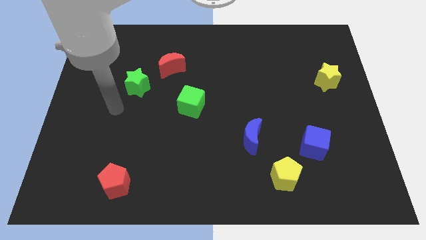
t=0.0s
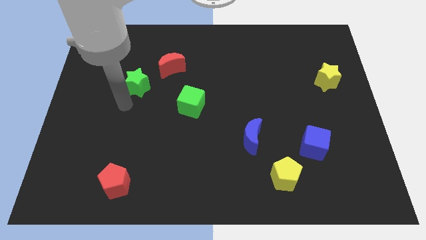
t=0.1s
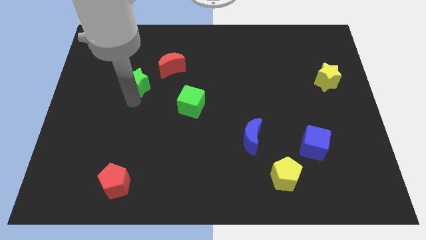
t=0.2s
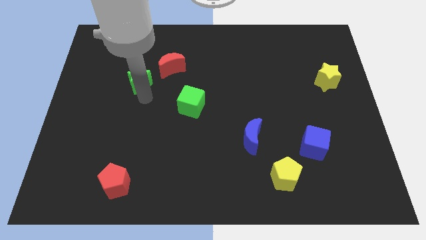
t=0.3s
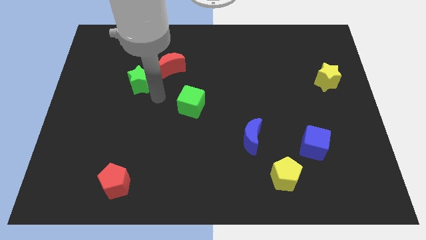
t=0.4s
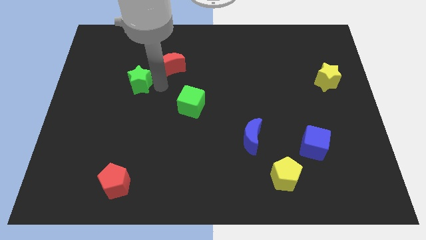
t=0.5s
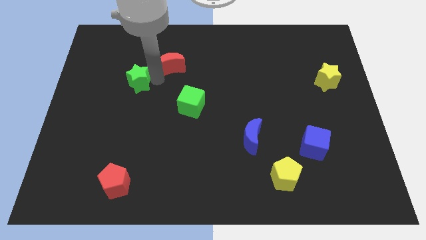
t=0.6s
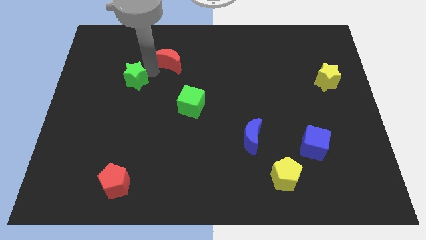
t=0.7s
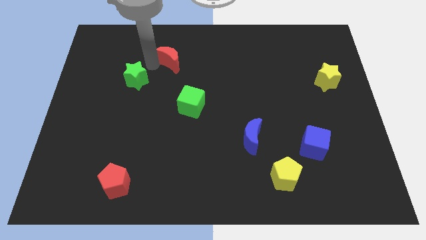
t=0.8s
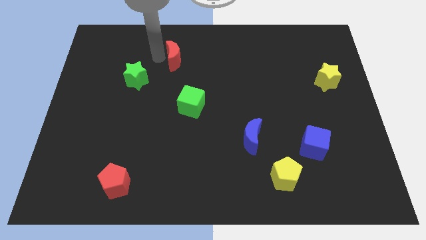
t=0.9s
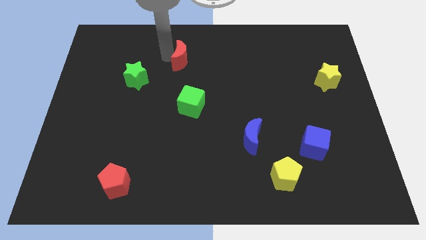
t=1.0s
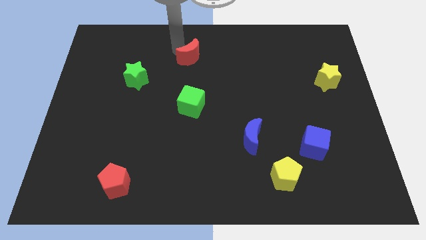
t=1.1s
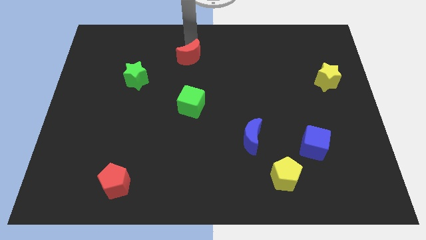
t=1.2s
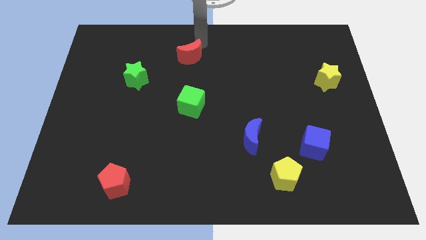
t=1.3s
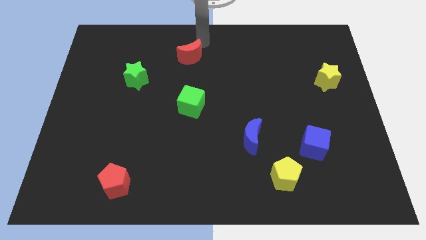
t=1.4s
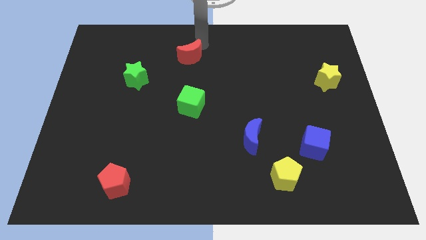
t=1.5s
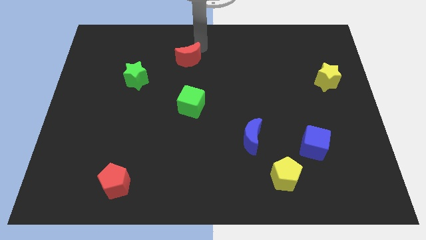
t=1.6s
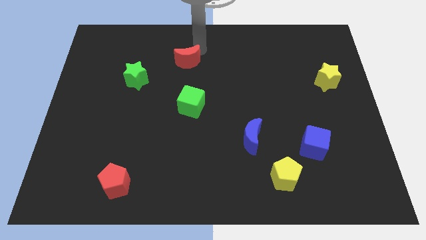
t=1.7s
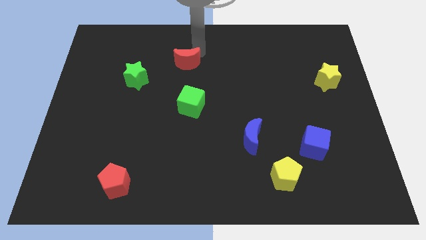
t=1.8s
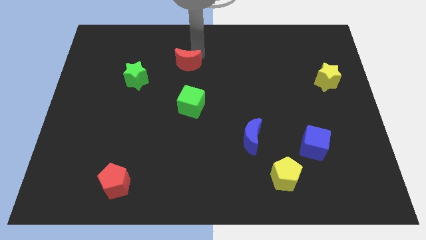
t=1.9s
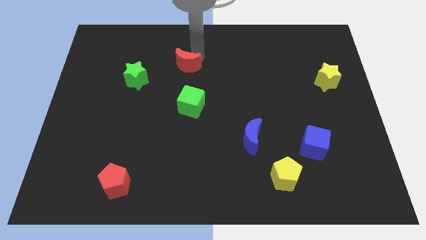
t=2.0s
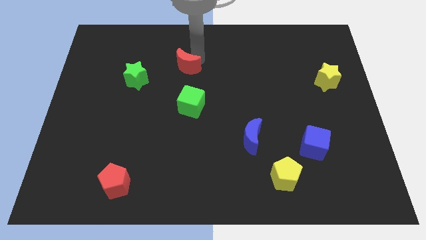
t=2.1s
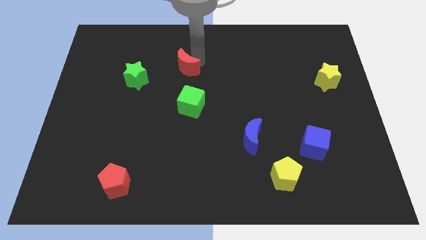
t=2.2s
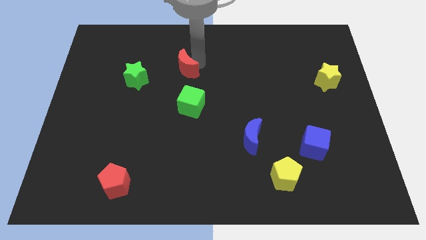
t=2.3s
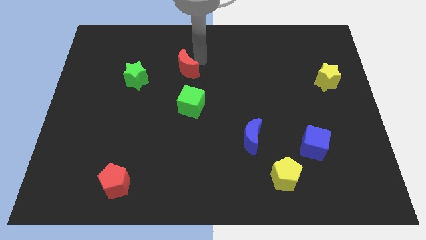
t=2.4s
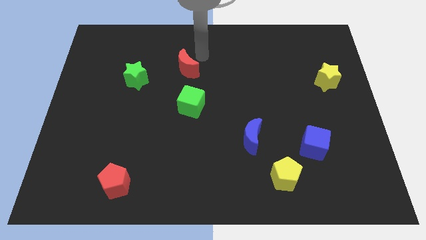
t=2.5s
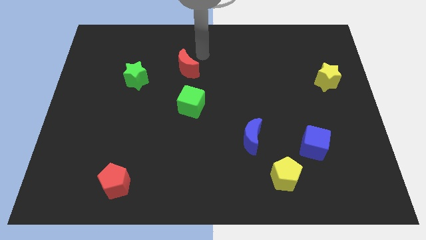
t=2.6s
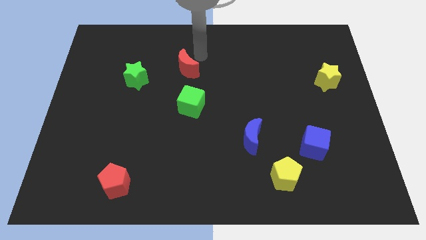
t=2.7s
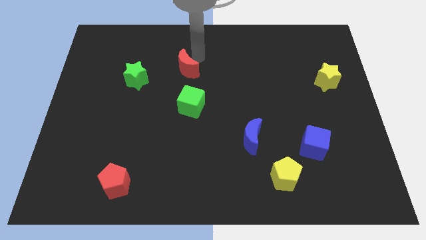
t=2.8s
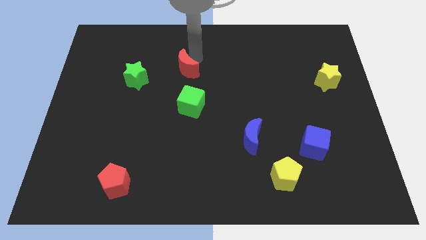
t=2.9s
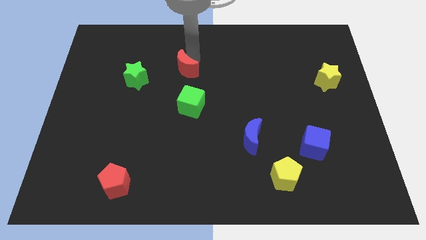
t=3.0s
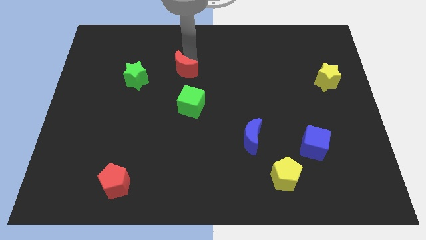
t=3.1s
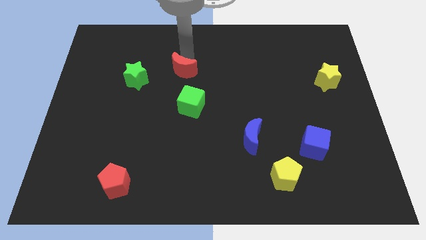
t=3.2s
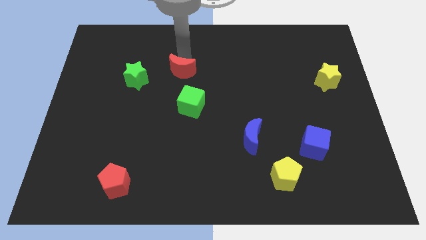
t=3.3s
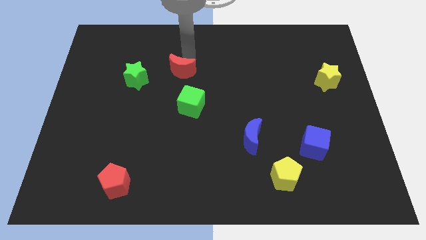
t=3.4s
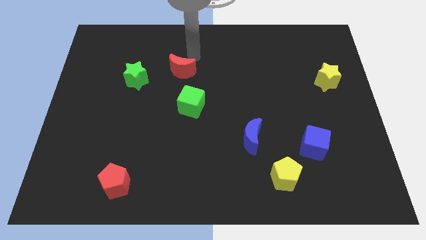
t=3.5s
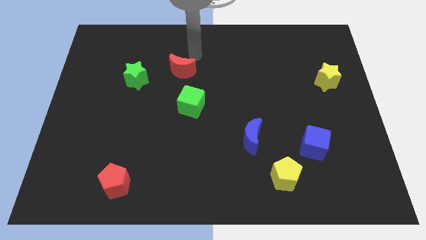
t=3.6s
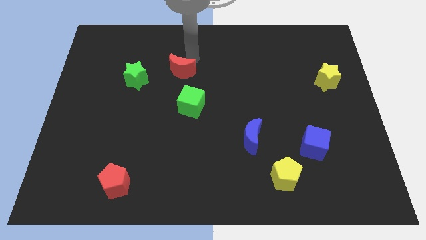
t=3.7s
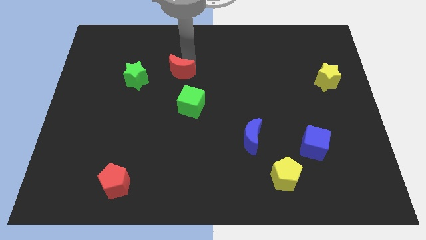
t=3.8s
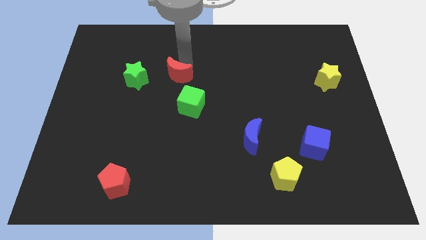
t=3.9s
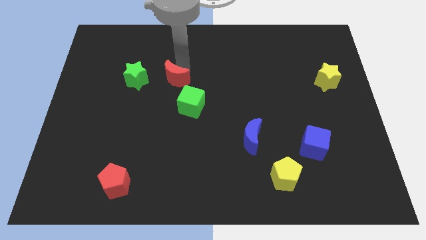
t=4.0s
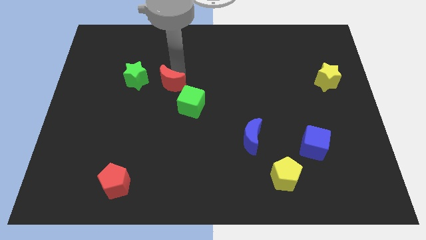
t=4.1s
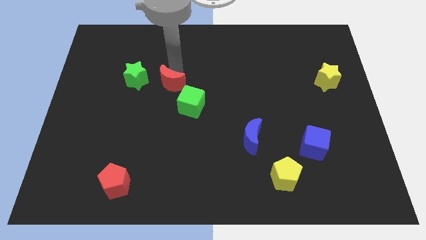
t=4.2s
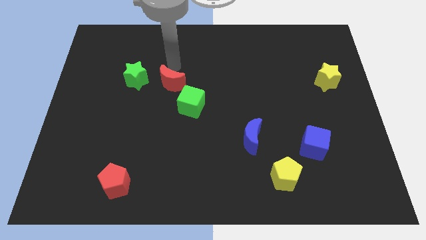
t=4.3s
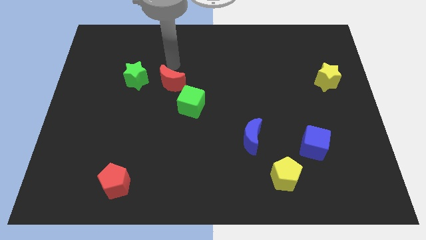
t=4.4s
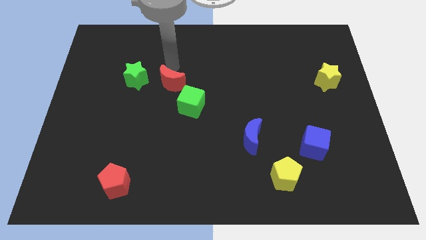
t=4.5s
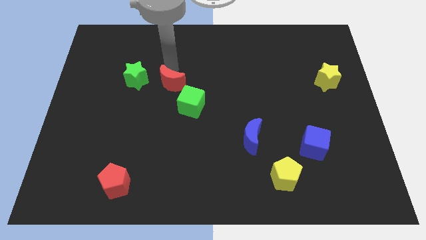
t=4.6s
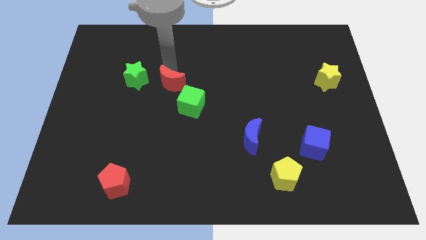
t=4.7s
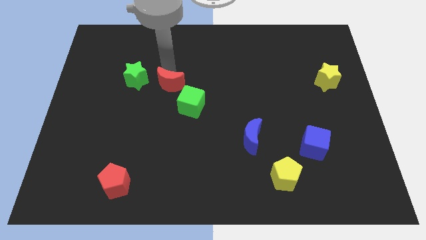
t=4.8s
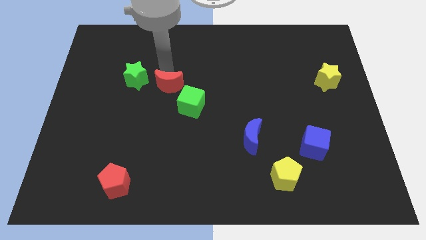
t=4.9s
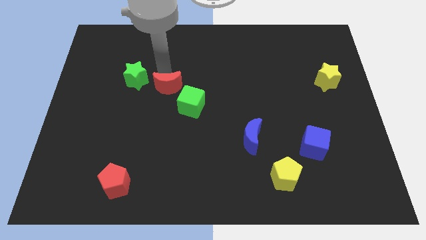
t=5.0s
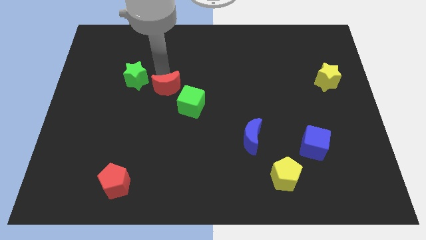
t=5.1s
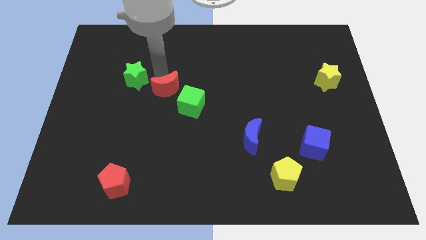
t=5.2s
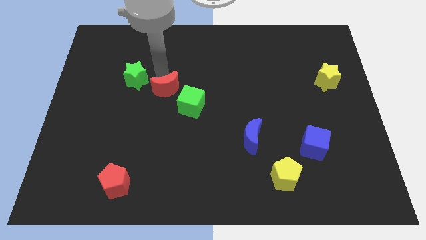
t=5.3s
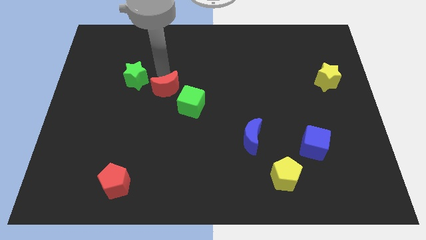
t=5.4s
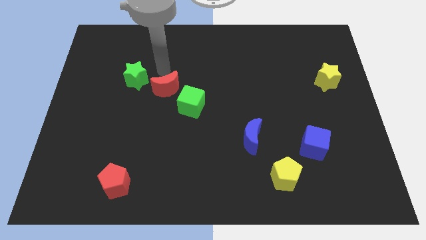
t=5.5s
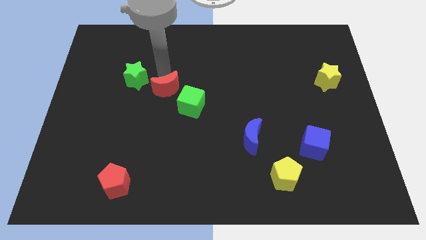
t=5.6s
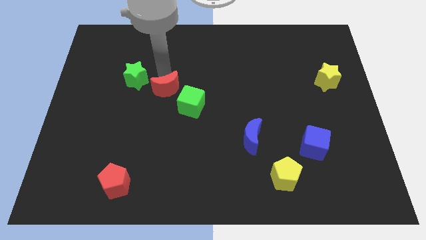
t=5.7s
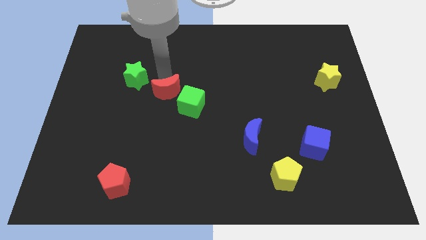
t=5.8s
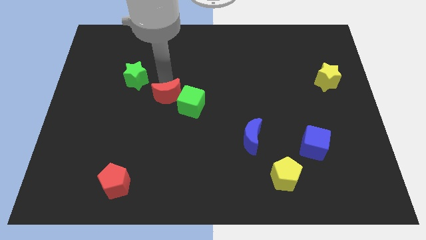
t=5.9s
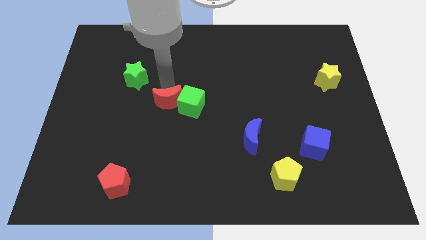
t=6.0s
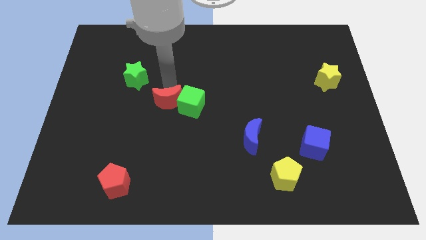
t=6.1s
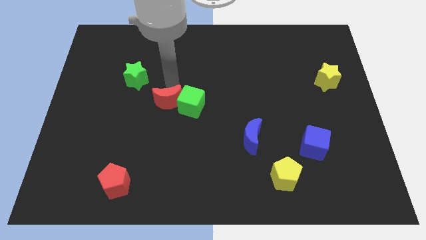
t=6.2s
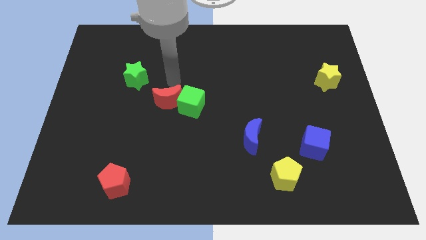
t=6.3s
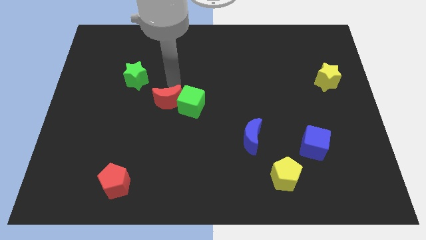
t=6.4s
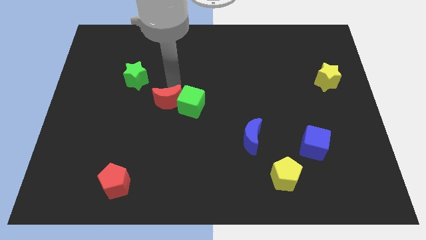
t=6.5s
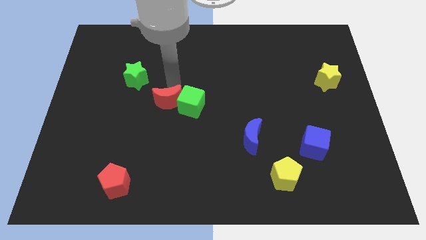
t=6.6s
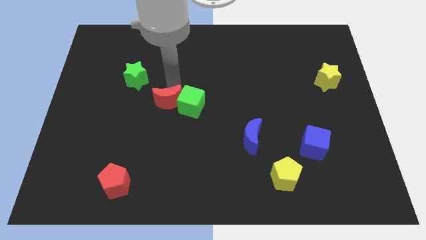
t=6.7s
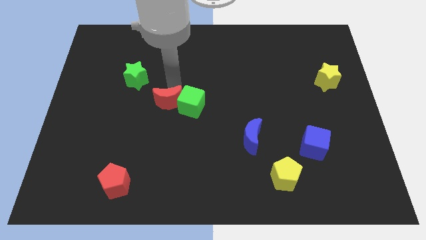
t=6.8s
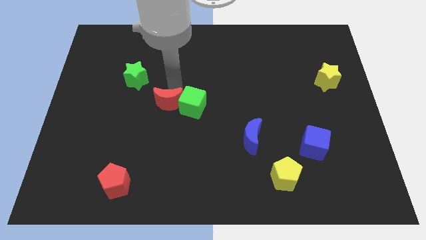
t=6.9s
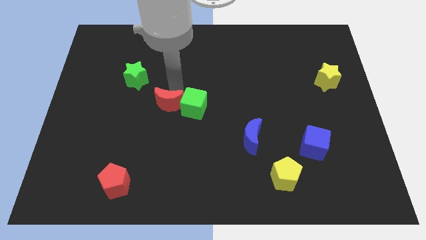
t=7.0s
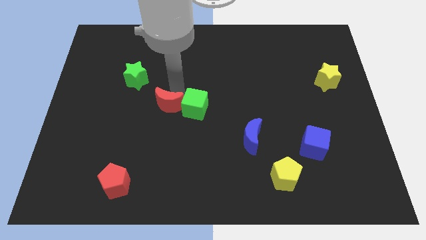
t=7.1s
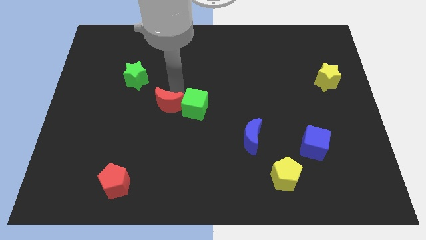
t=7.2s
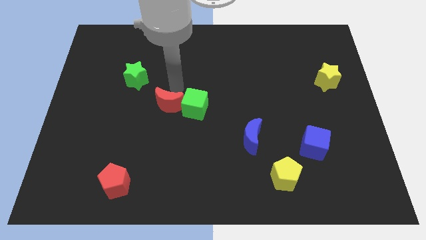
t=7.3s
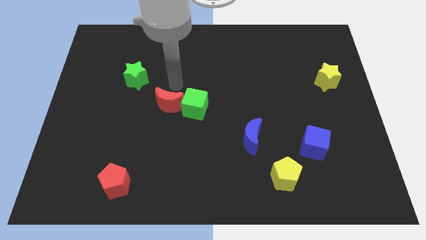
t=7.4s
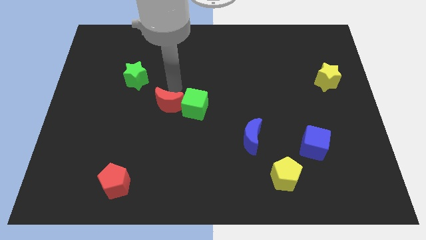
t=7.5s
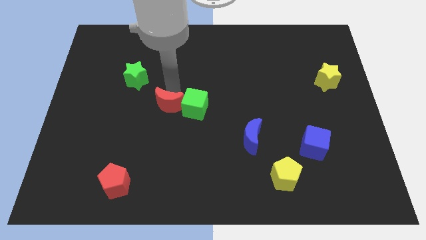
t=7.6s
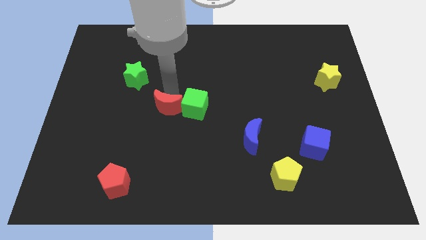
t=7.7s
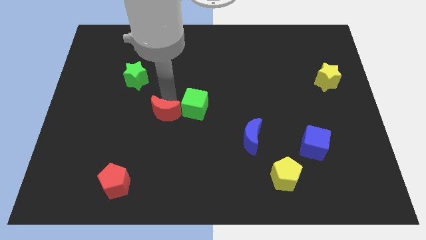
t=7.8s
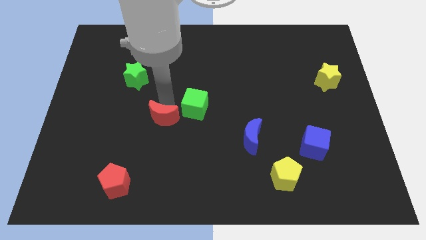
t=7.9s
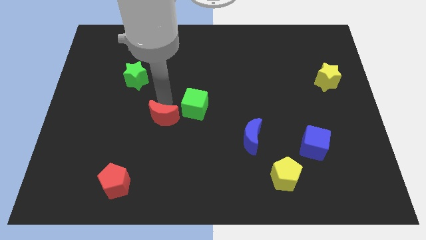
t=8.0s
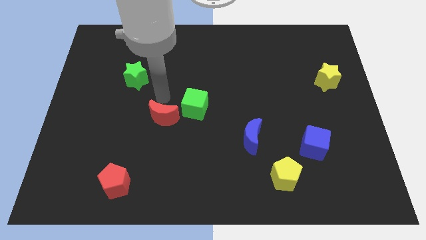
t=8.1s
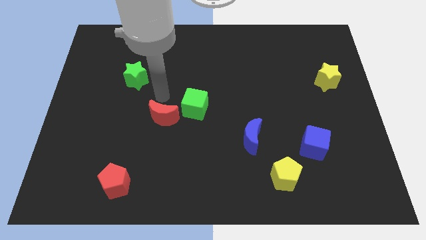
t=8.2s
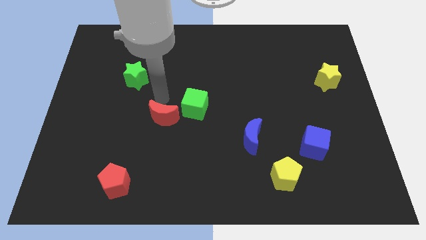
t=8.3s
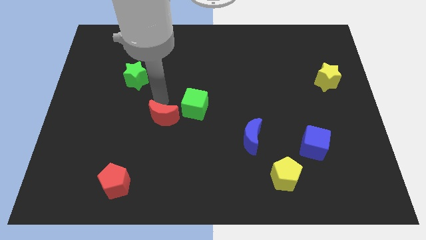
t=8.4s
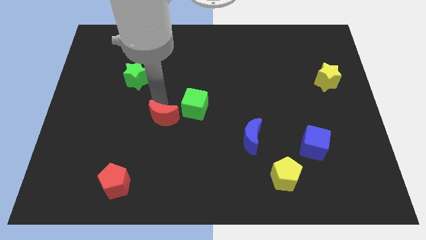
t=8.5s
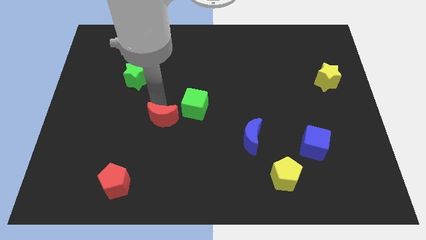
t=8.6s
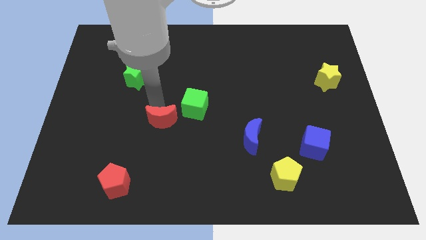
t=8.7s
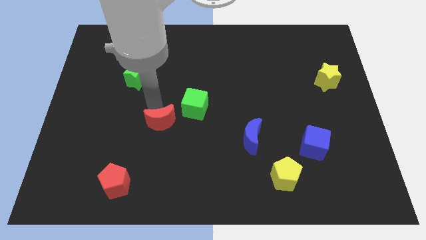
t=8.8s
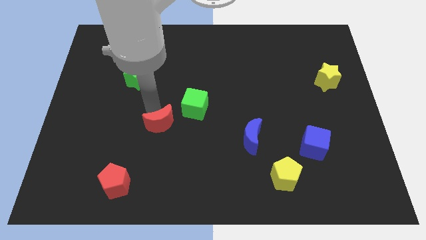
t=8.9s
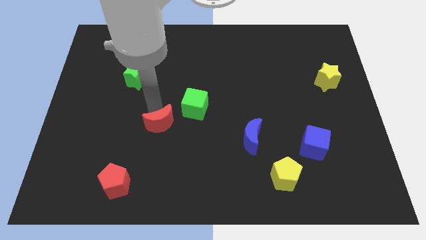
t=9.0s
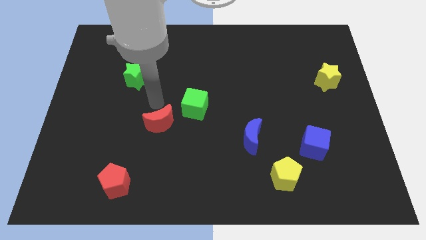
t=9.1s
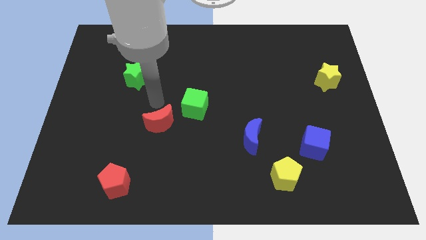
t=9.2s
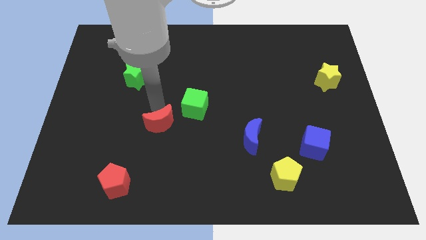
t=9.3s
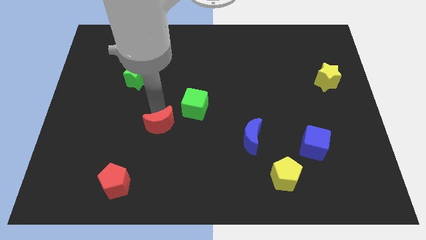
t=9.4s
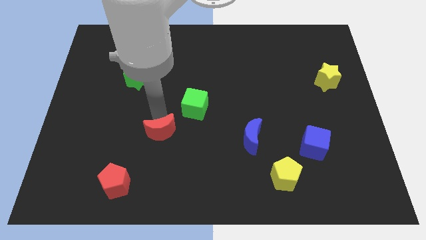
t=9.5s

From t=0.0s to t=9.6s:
move the red moon down
